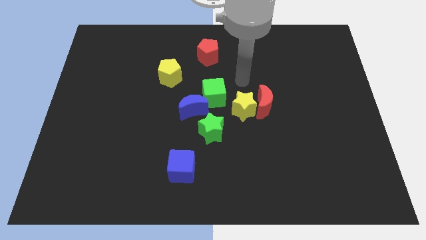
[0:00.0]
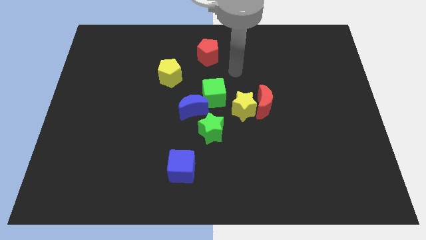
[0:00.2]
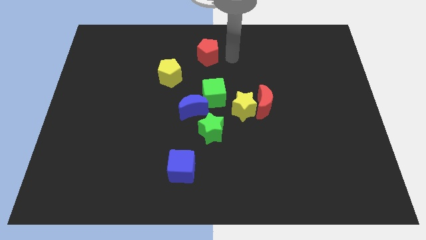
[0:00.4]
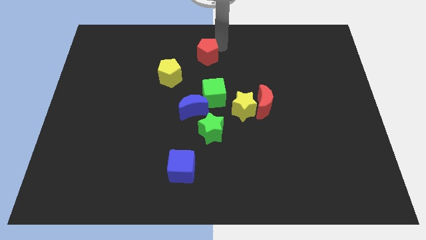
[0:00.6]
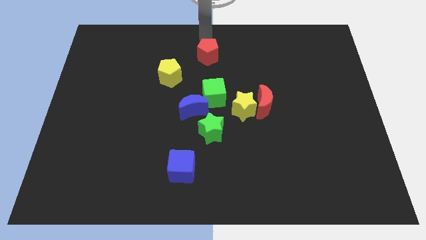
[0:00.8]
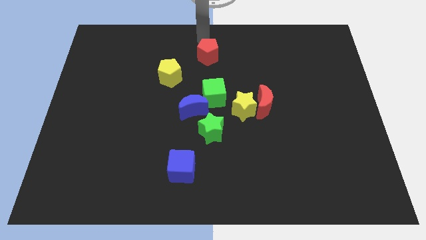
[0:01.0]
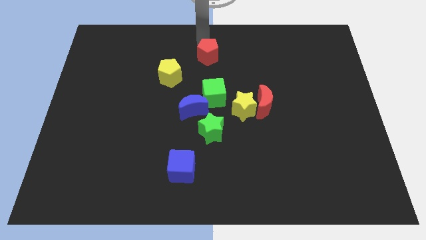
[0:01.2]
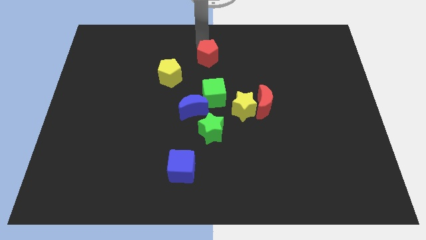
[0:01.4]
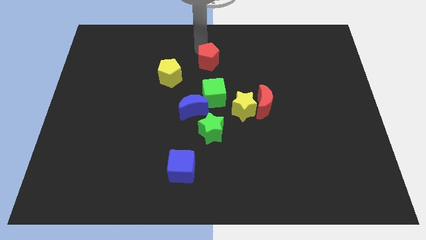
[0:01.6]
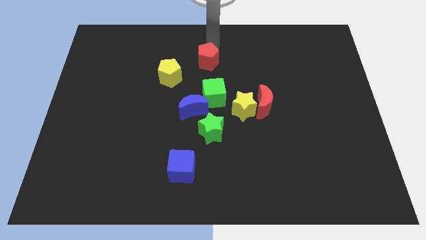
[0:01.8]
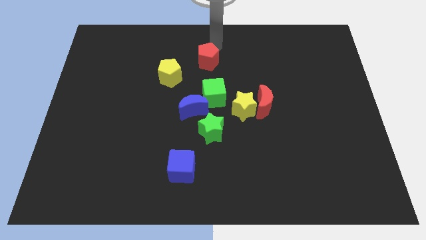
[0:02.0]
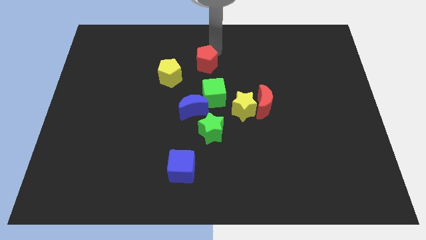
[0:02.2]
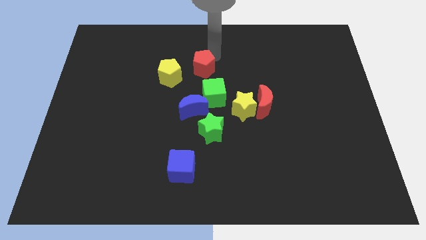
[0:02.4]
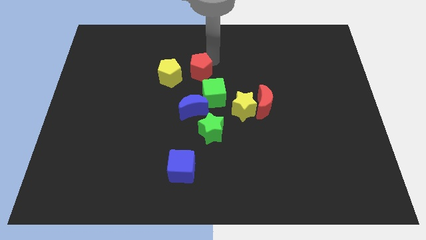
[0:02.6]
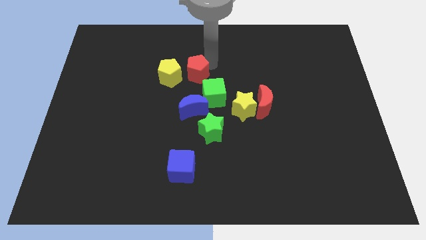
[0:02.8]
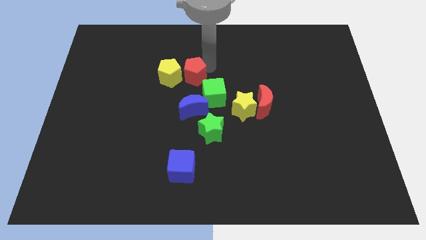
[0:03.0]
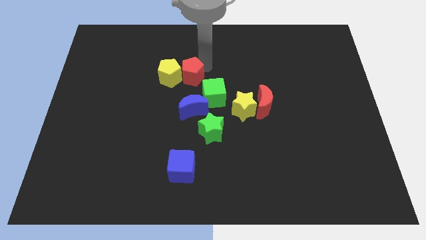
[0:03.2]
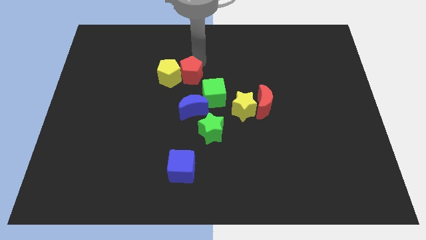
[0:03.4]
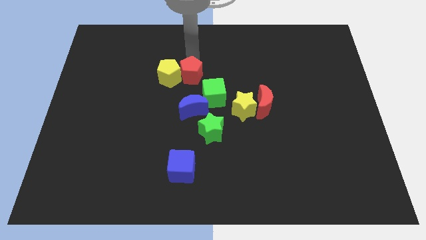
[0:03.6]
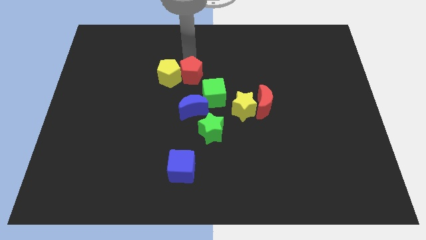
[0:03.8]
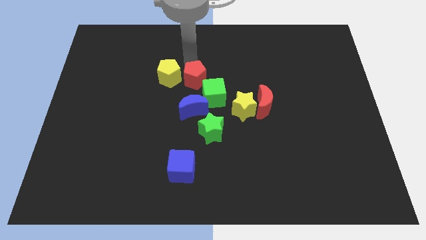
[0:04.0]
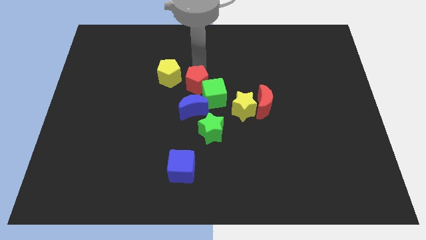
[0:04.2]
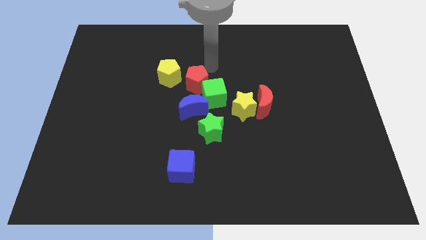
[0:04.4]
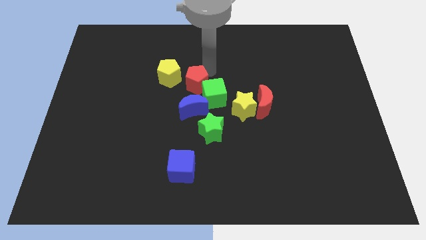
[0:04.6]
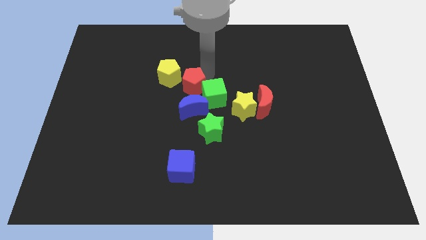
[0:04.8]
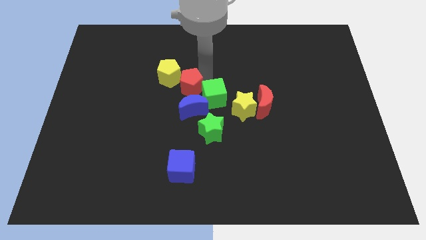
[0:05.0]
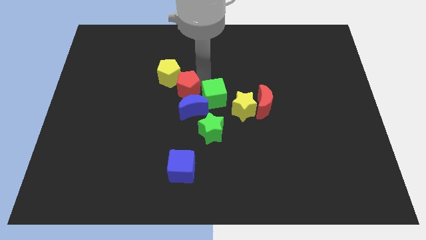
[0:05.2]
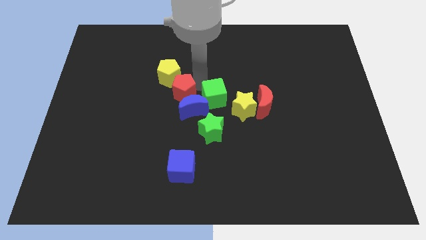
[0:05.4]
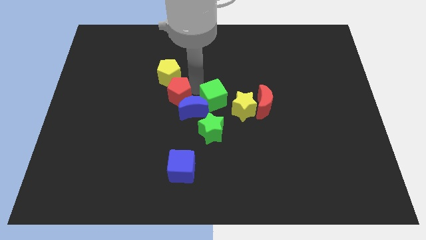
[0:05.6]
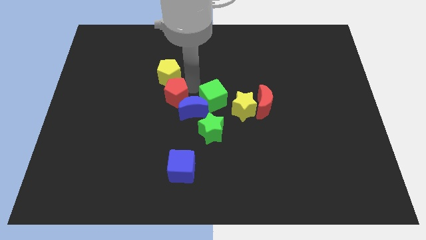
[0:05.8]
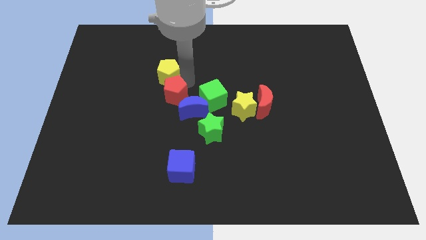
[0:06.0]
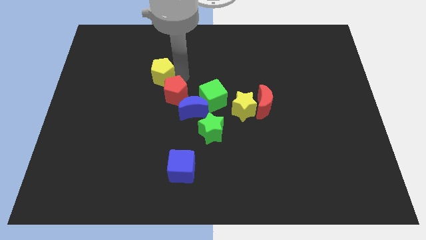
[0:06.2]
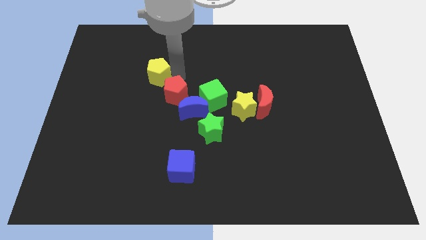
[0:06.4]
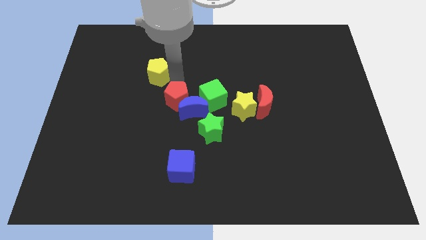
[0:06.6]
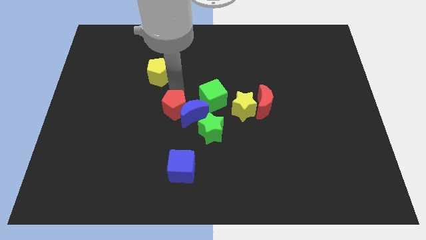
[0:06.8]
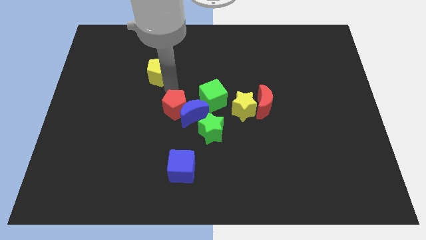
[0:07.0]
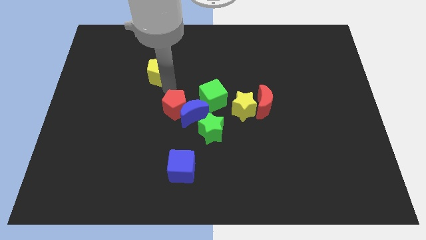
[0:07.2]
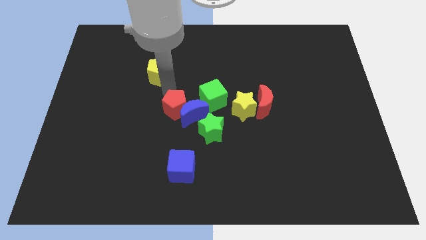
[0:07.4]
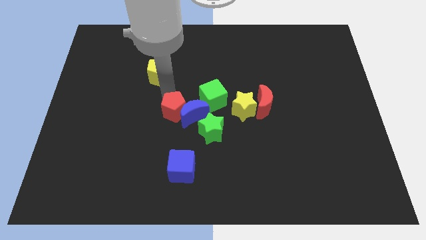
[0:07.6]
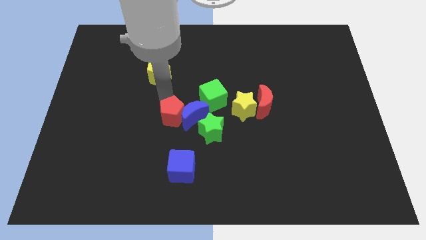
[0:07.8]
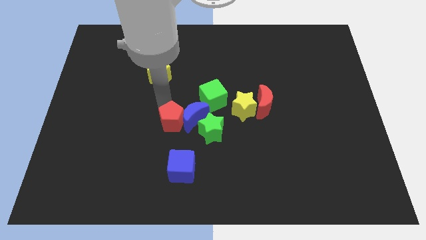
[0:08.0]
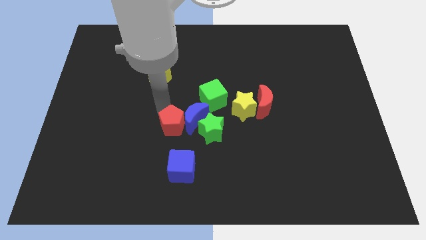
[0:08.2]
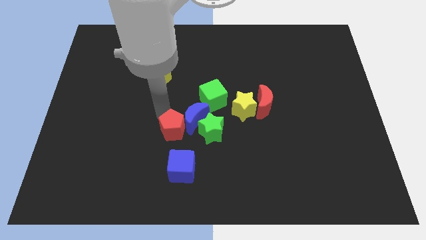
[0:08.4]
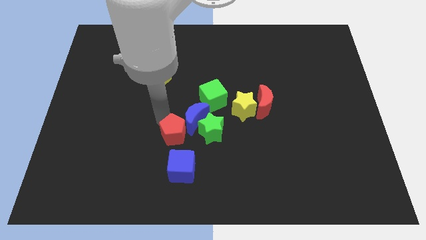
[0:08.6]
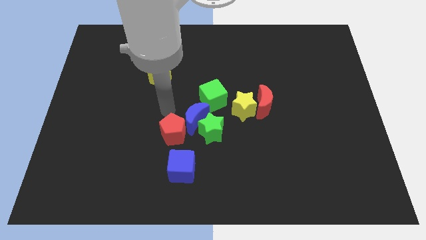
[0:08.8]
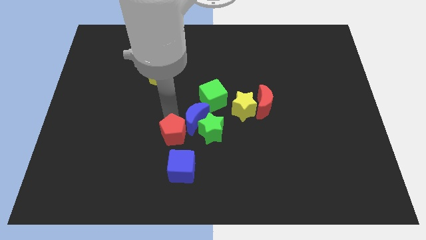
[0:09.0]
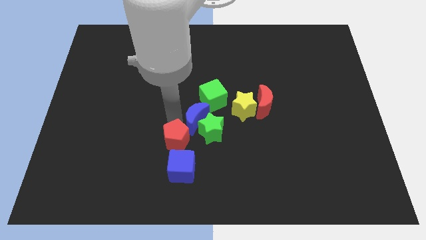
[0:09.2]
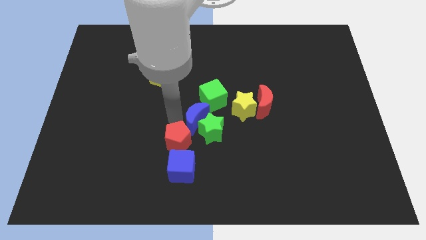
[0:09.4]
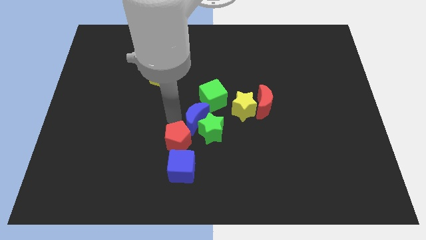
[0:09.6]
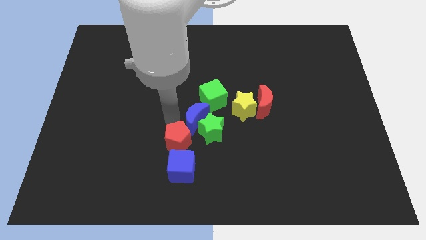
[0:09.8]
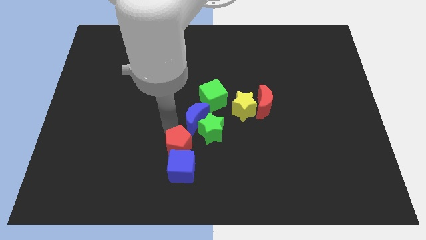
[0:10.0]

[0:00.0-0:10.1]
push the red pentagon next to the blue cube

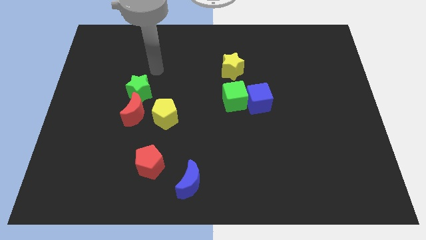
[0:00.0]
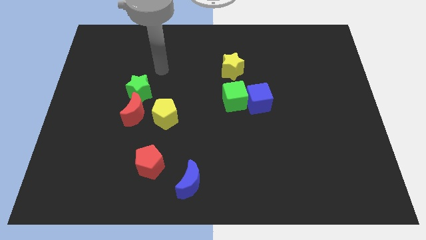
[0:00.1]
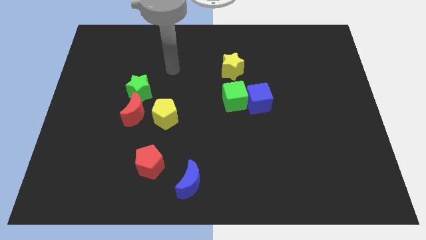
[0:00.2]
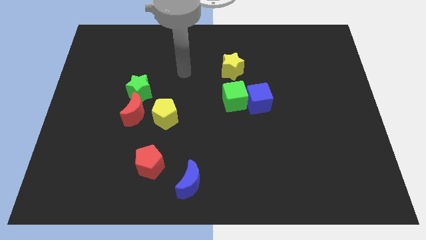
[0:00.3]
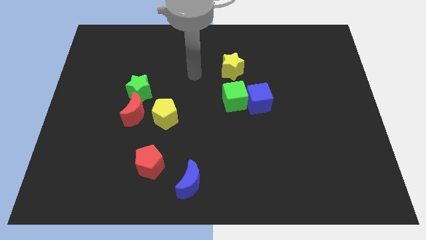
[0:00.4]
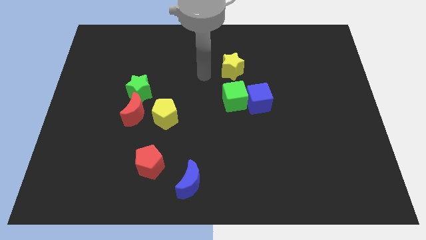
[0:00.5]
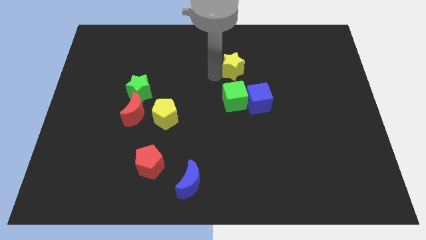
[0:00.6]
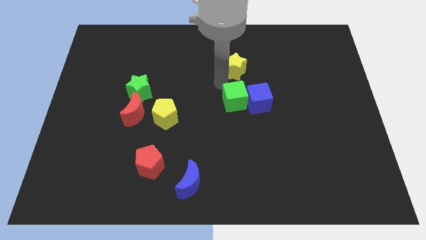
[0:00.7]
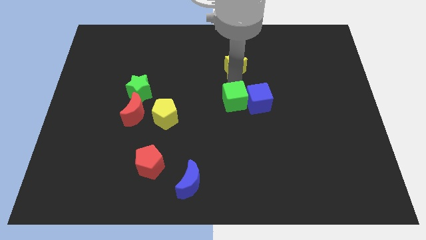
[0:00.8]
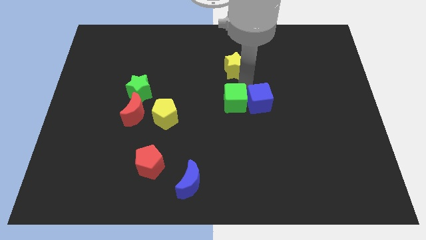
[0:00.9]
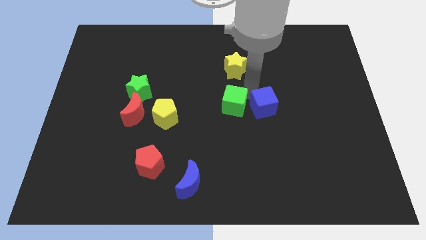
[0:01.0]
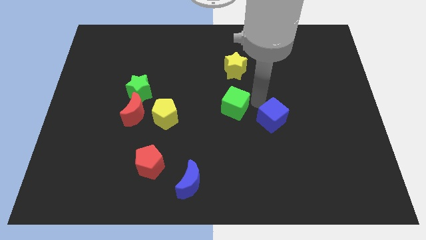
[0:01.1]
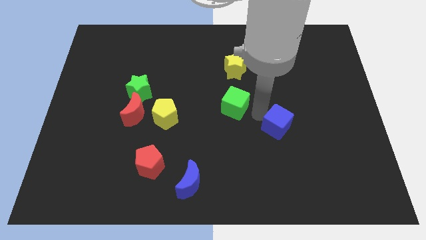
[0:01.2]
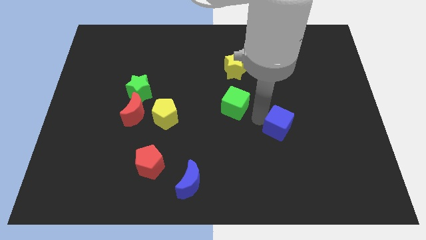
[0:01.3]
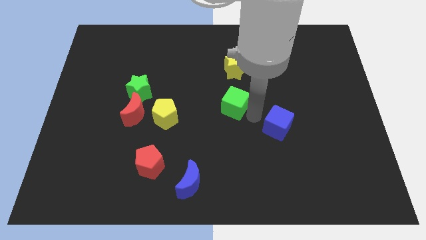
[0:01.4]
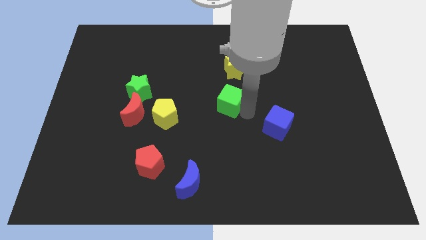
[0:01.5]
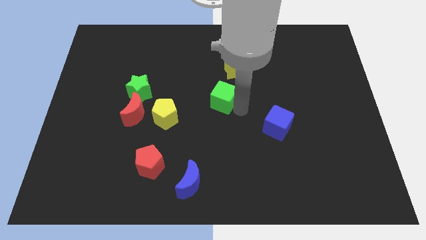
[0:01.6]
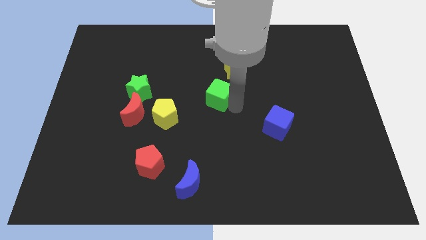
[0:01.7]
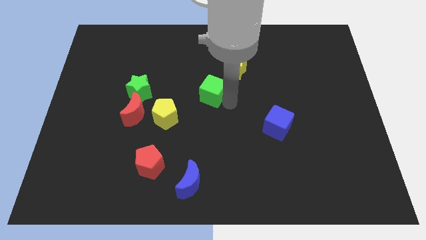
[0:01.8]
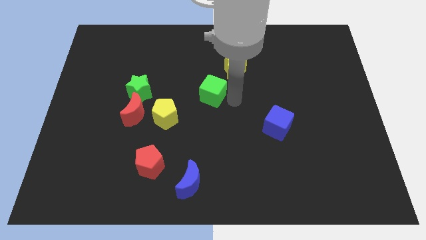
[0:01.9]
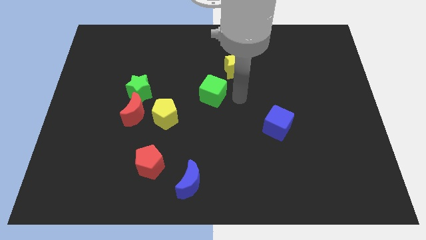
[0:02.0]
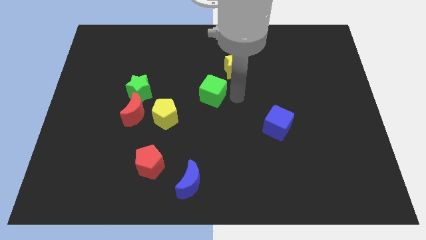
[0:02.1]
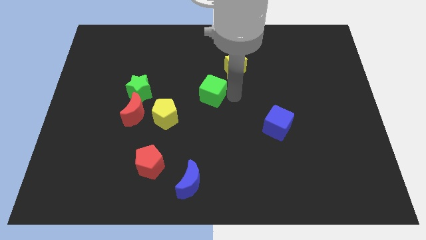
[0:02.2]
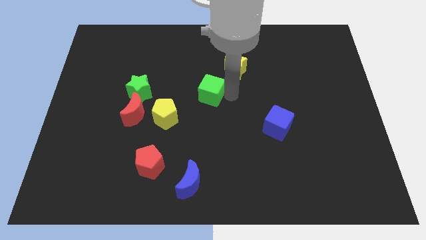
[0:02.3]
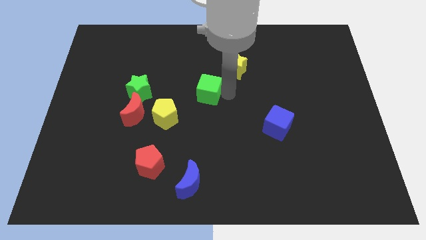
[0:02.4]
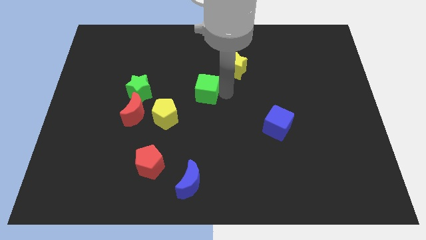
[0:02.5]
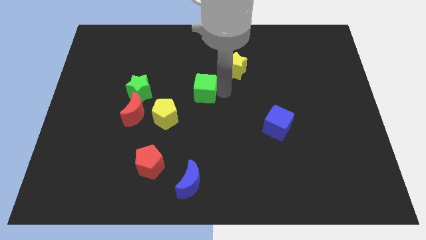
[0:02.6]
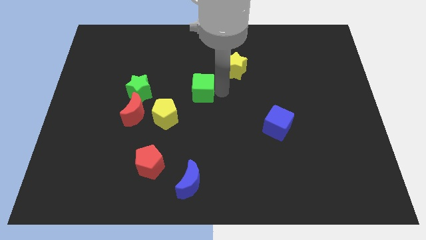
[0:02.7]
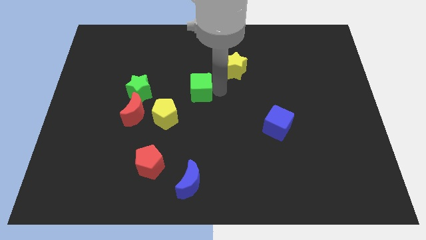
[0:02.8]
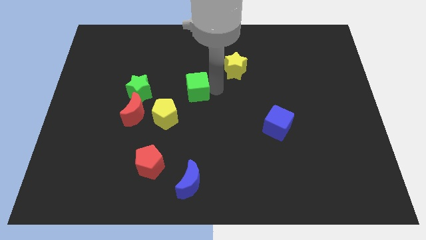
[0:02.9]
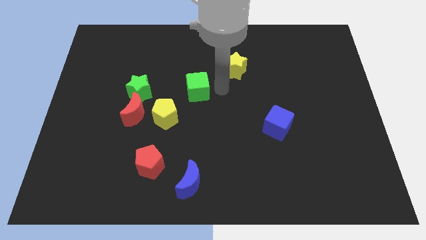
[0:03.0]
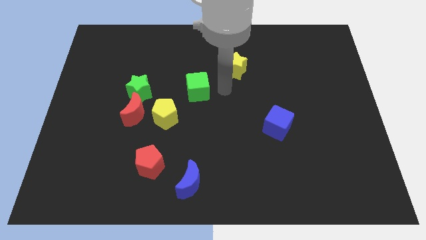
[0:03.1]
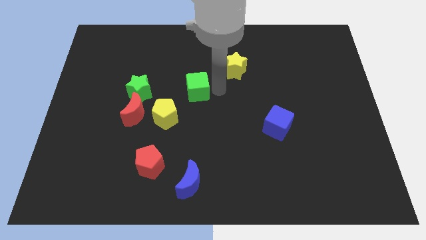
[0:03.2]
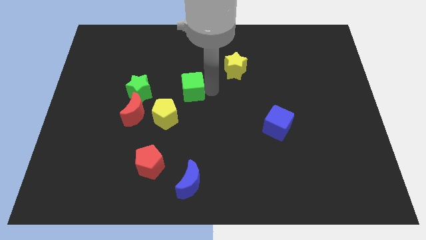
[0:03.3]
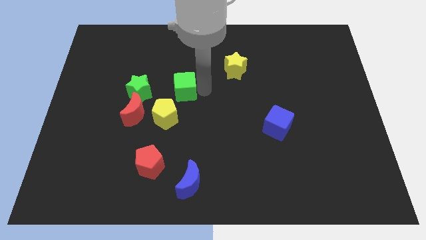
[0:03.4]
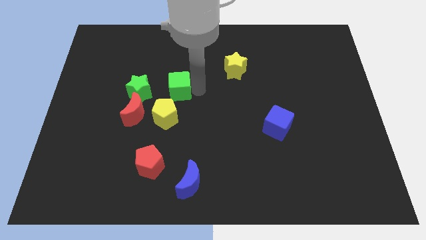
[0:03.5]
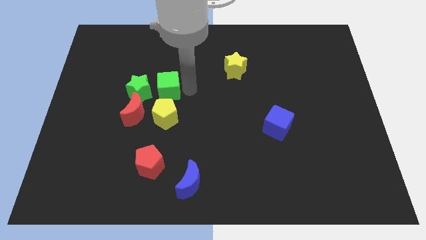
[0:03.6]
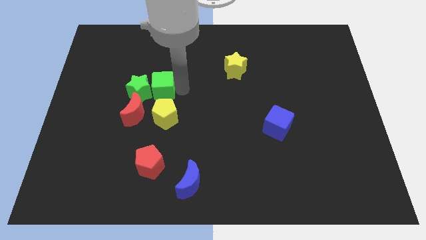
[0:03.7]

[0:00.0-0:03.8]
move the green cube towards the green star
